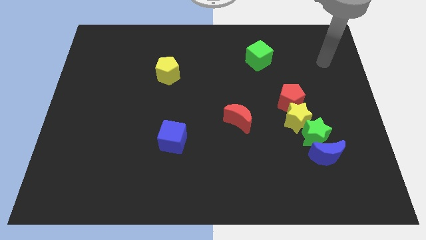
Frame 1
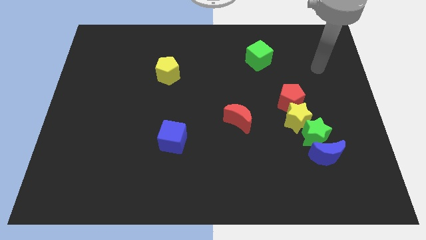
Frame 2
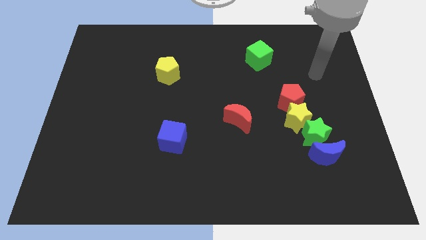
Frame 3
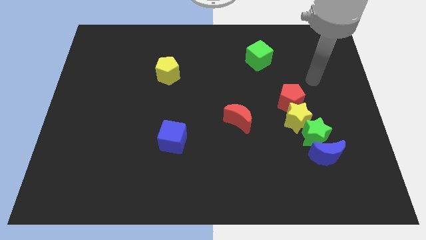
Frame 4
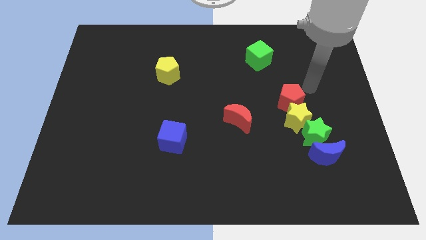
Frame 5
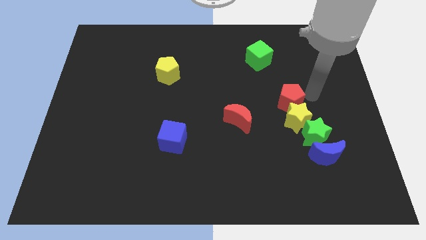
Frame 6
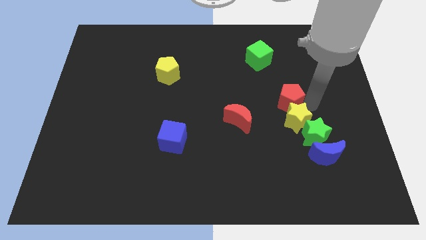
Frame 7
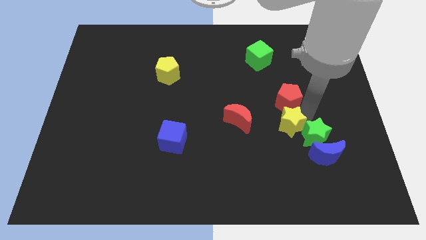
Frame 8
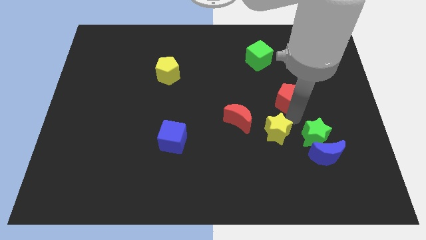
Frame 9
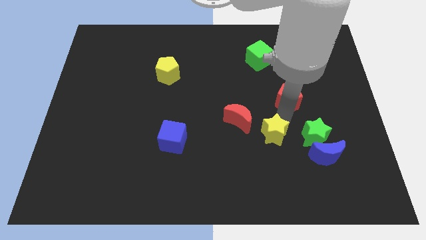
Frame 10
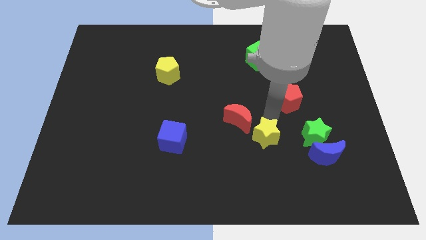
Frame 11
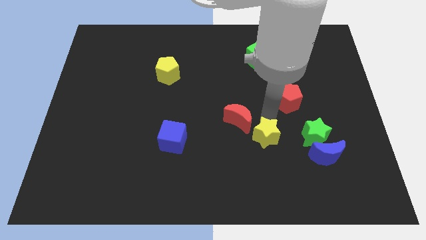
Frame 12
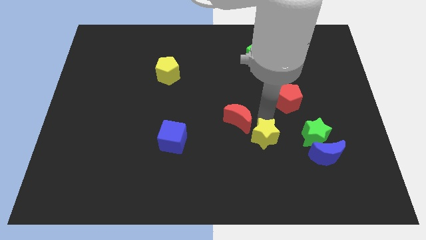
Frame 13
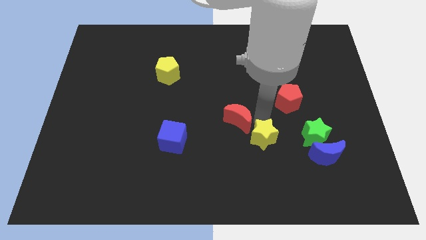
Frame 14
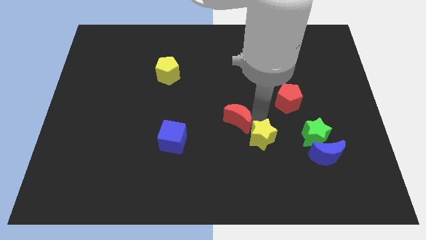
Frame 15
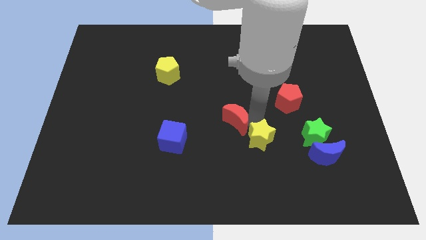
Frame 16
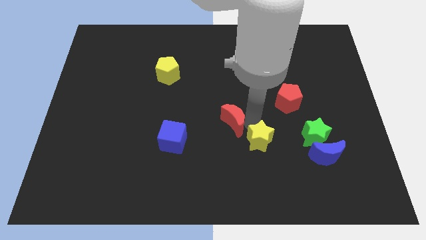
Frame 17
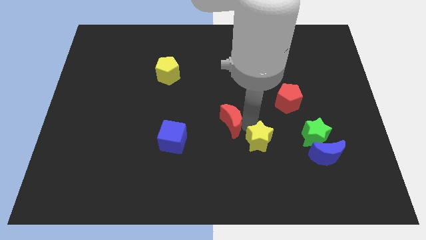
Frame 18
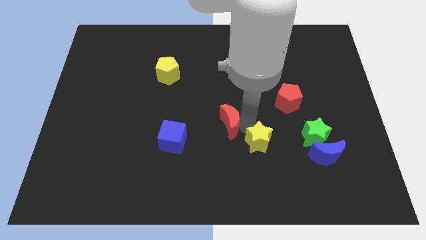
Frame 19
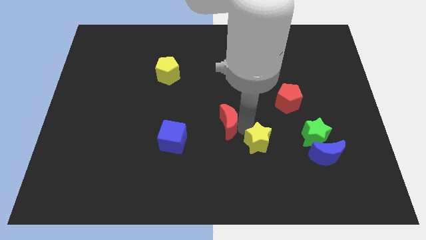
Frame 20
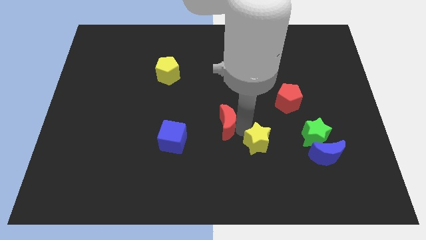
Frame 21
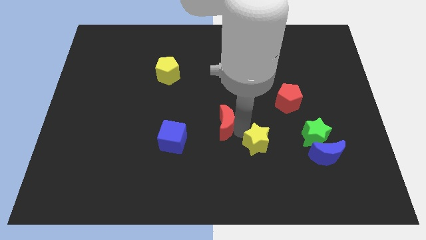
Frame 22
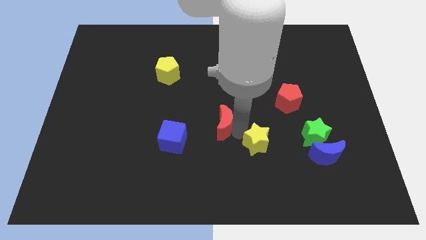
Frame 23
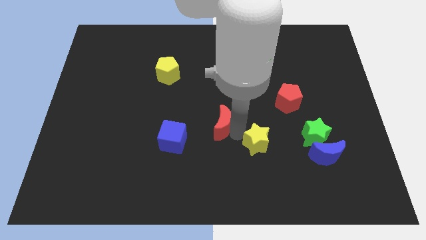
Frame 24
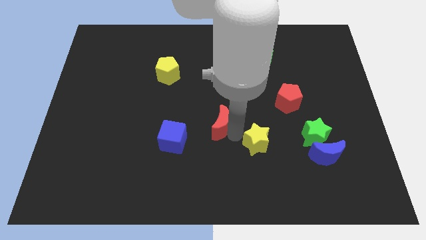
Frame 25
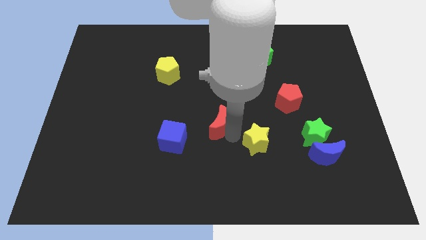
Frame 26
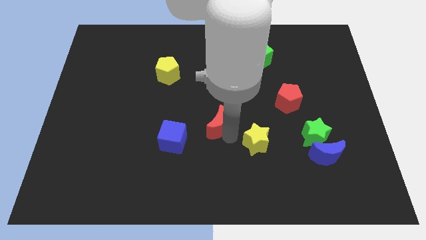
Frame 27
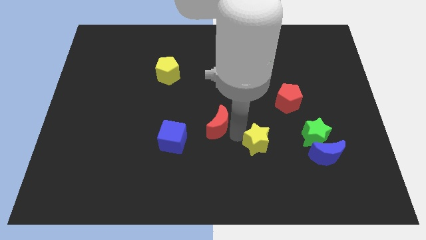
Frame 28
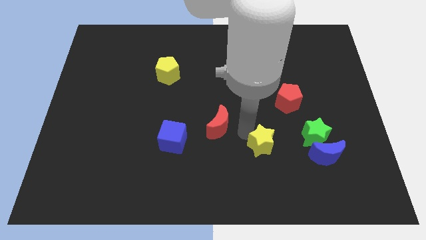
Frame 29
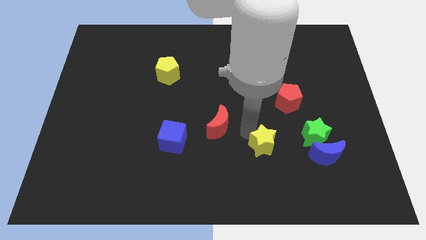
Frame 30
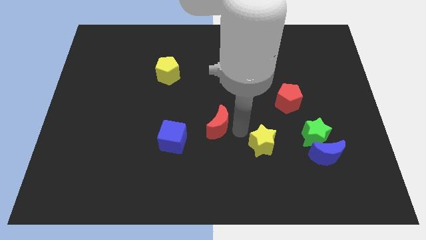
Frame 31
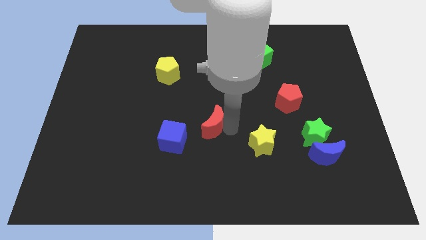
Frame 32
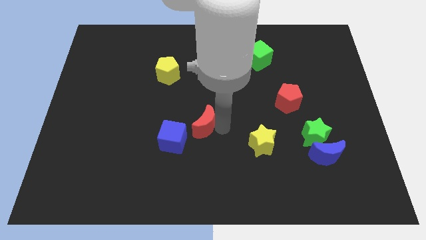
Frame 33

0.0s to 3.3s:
move the red moon to the left a bit

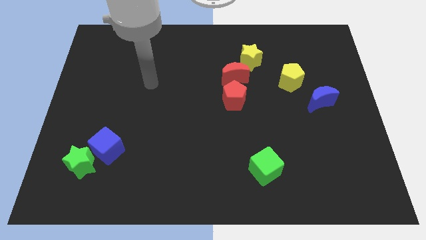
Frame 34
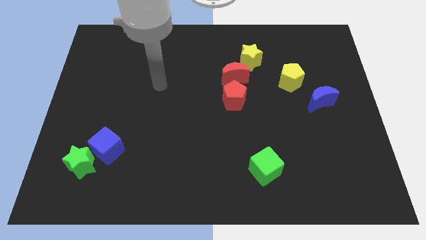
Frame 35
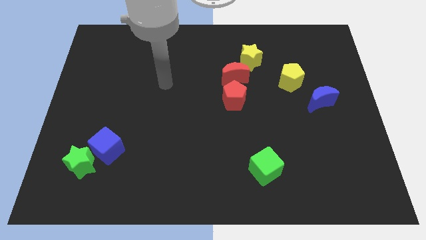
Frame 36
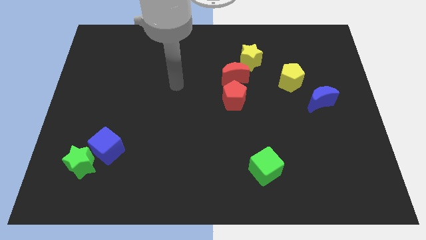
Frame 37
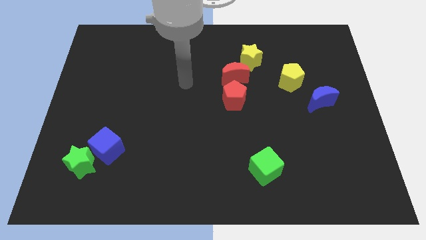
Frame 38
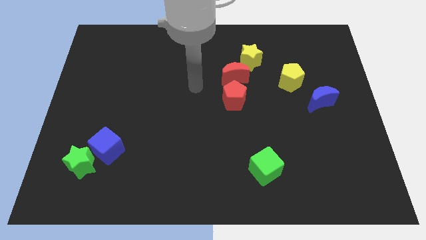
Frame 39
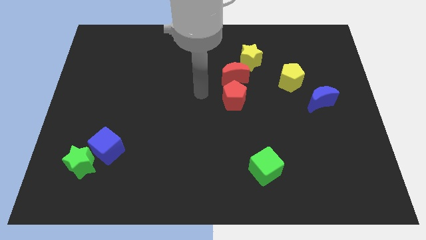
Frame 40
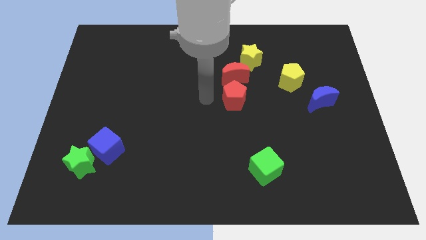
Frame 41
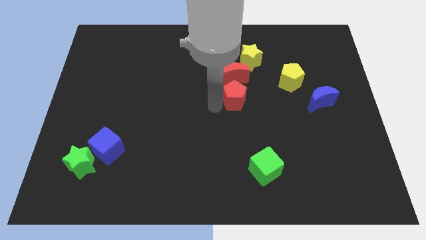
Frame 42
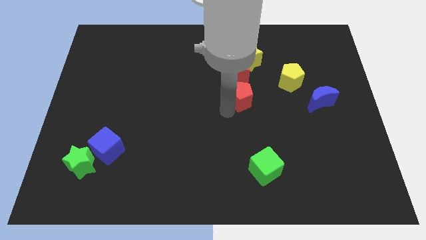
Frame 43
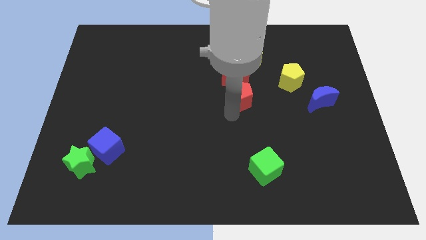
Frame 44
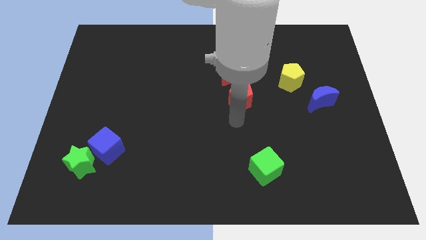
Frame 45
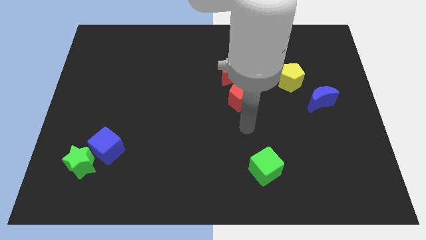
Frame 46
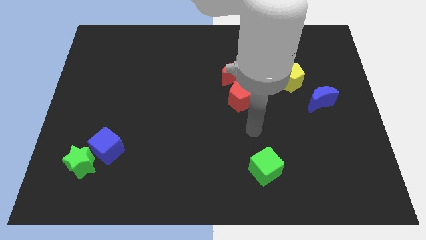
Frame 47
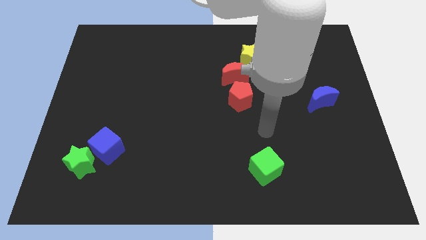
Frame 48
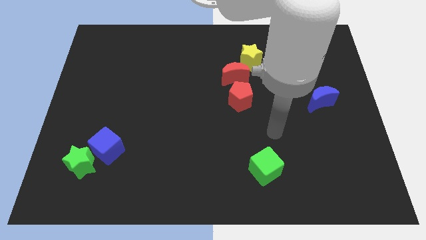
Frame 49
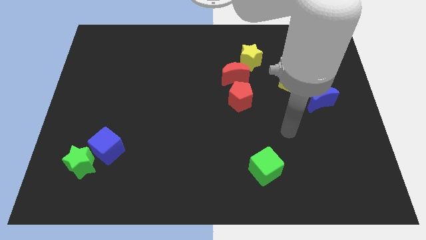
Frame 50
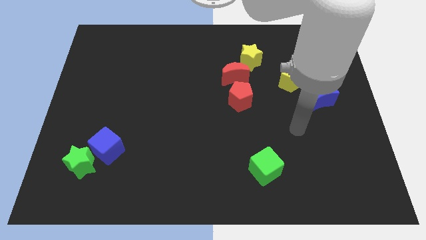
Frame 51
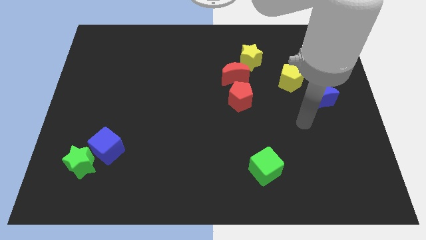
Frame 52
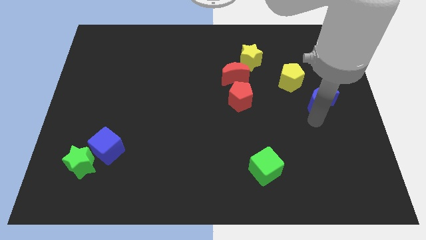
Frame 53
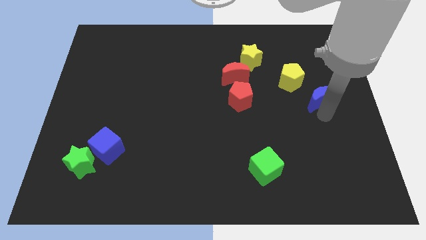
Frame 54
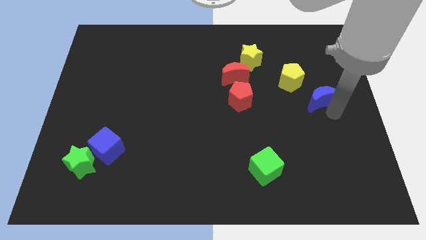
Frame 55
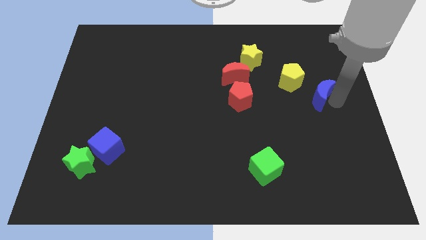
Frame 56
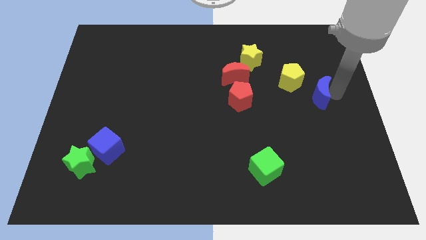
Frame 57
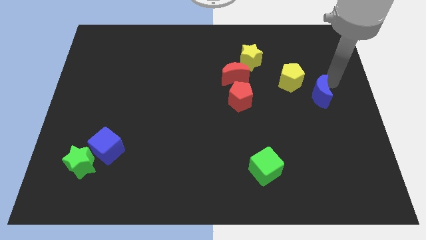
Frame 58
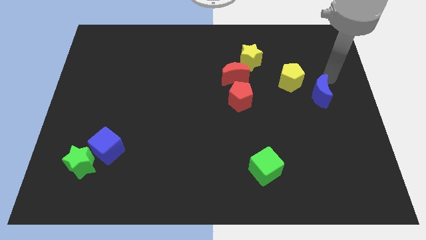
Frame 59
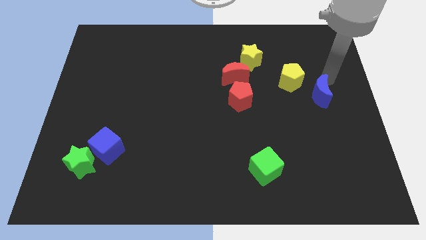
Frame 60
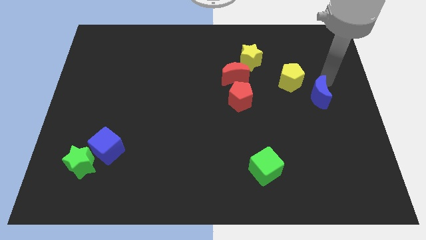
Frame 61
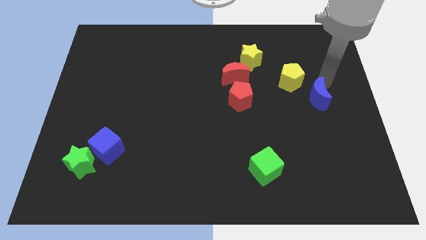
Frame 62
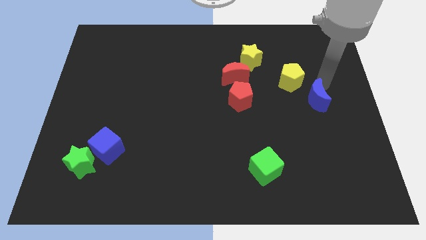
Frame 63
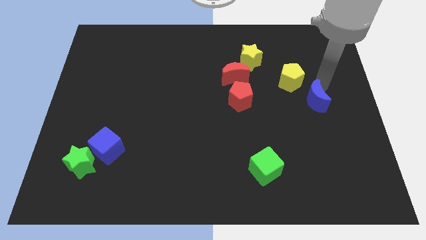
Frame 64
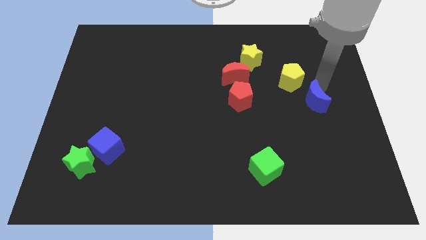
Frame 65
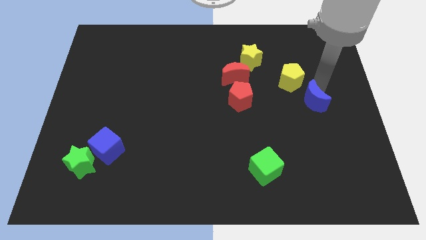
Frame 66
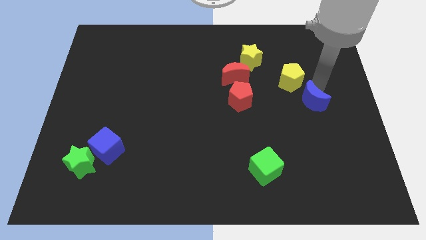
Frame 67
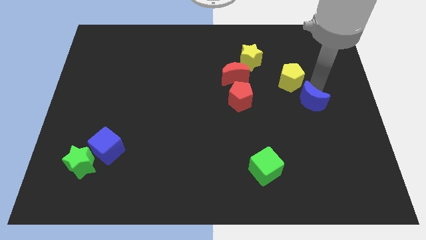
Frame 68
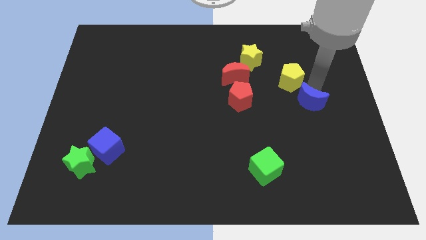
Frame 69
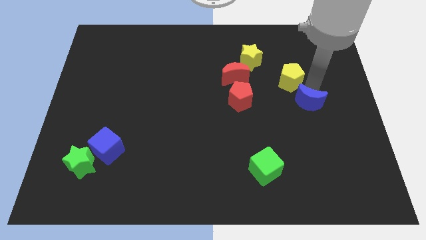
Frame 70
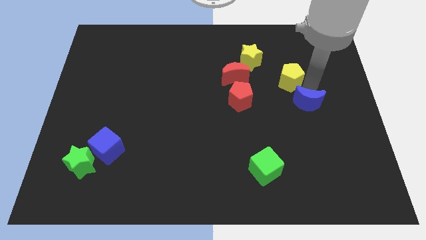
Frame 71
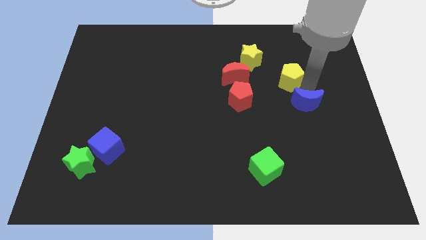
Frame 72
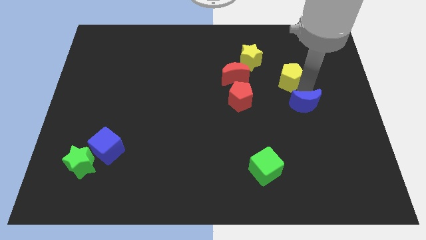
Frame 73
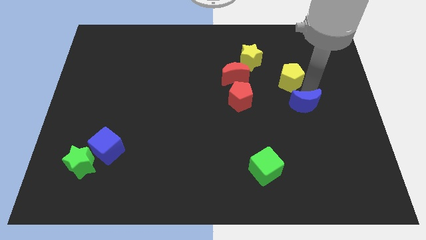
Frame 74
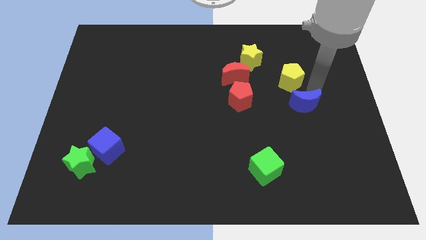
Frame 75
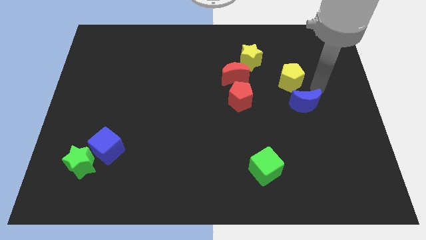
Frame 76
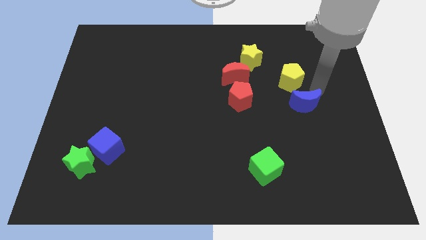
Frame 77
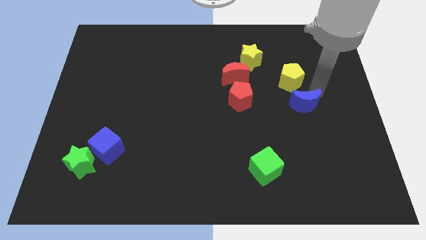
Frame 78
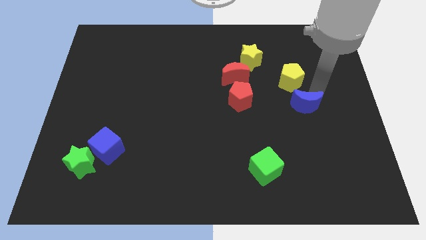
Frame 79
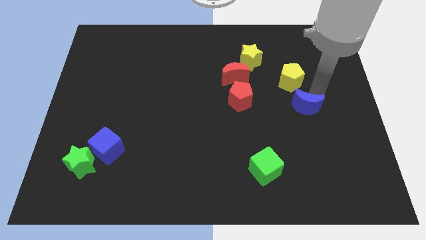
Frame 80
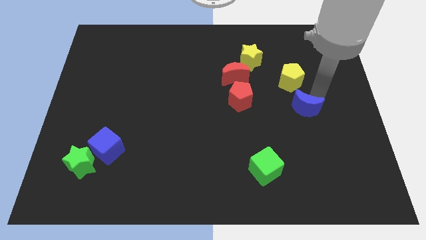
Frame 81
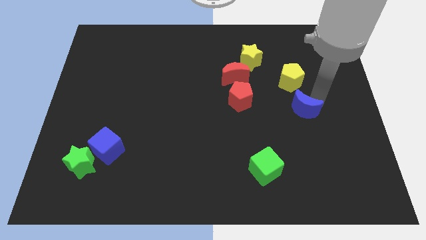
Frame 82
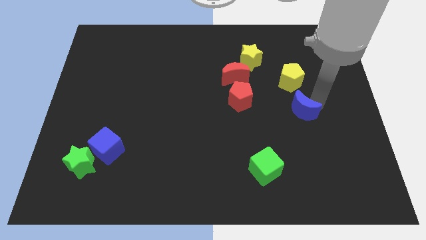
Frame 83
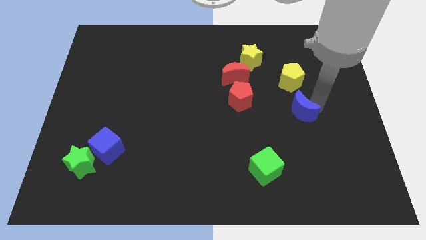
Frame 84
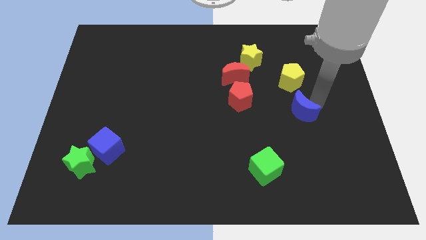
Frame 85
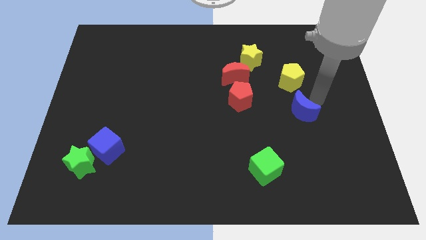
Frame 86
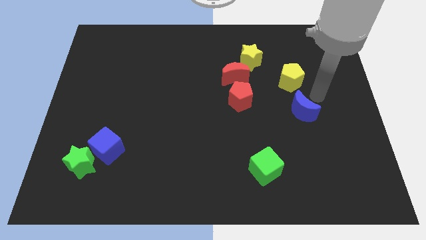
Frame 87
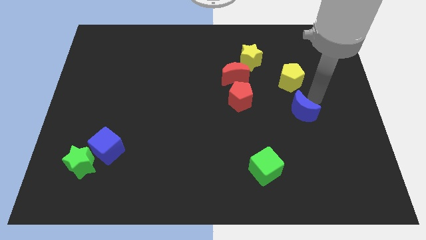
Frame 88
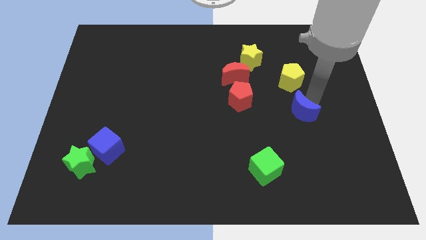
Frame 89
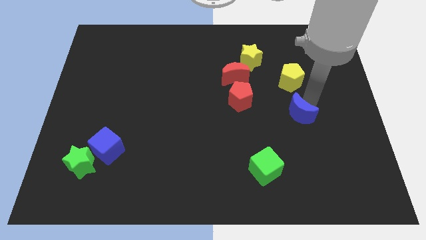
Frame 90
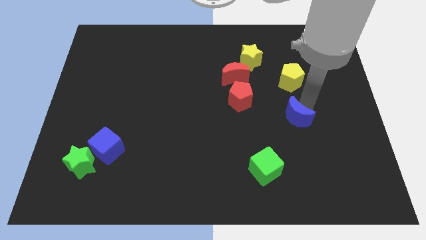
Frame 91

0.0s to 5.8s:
push the blue moon down and then to the left a bit
